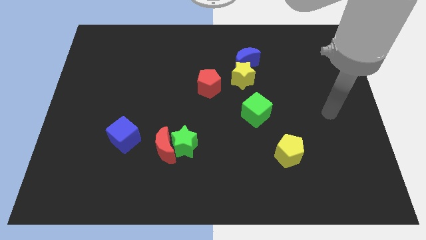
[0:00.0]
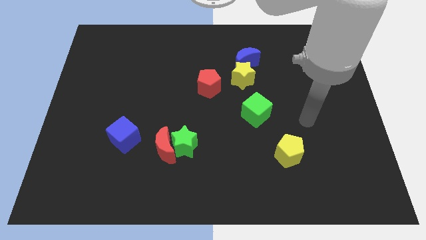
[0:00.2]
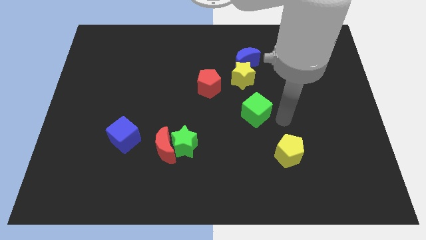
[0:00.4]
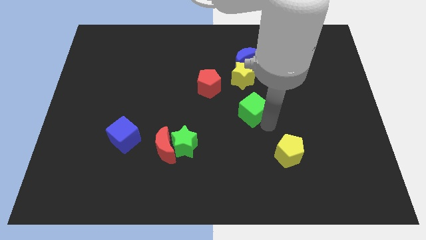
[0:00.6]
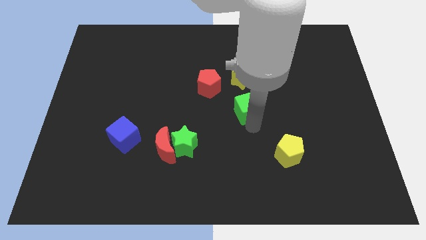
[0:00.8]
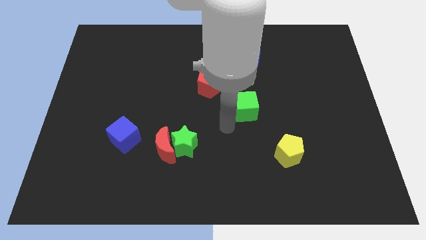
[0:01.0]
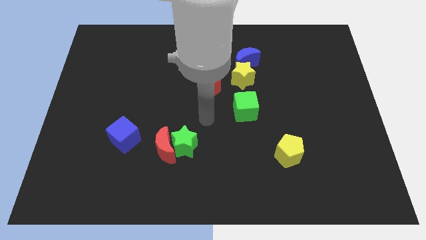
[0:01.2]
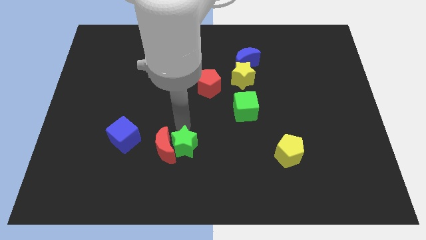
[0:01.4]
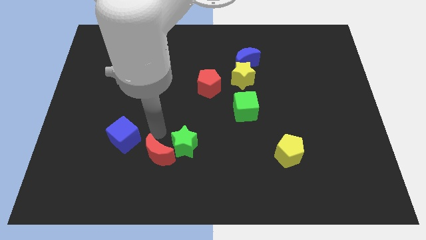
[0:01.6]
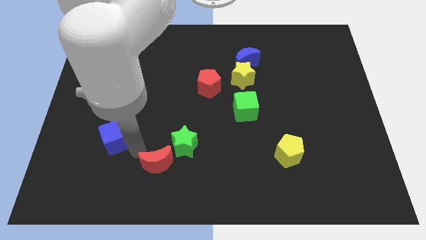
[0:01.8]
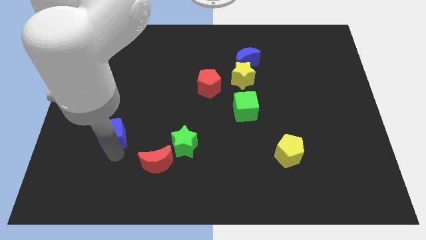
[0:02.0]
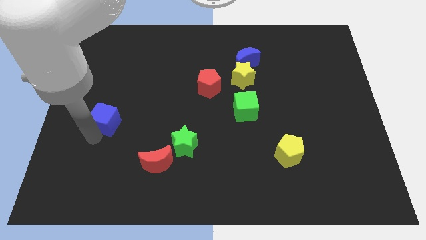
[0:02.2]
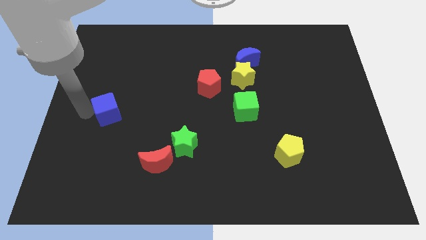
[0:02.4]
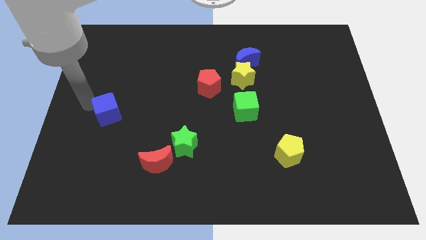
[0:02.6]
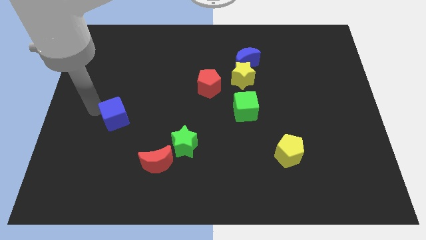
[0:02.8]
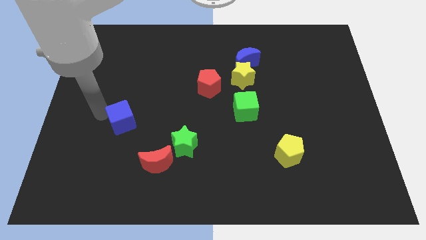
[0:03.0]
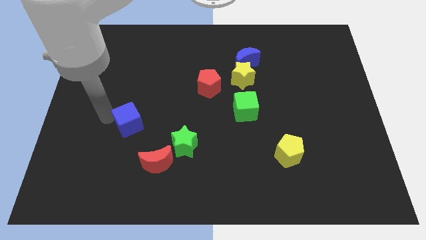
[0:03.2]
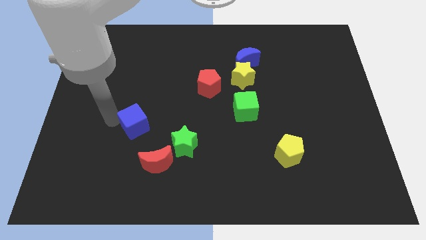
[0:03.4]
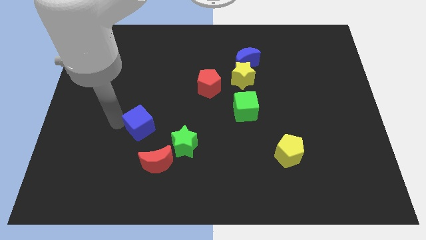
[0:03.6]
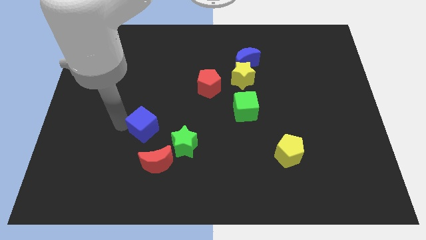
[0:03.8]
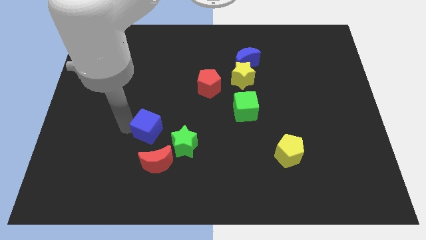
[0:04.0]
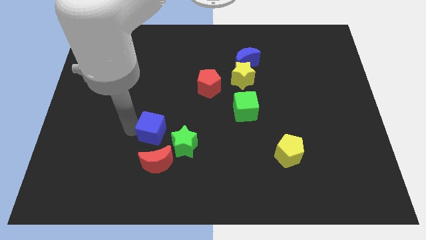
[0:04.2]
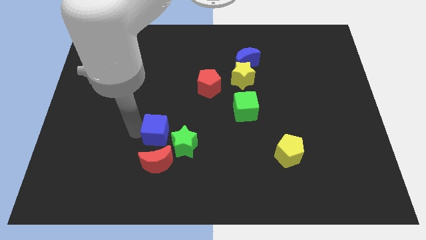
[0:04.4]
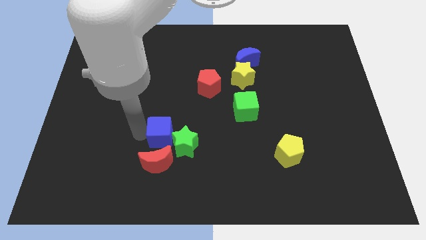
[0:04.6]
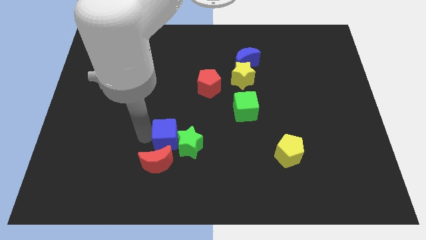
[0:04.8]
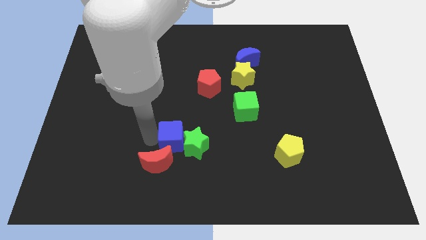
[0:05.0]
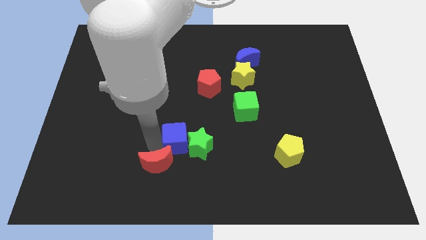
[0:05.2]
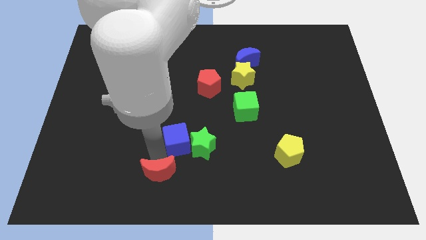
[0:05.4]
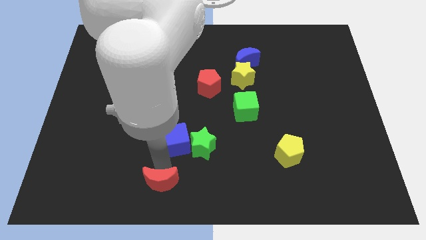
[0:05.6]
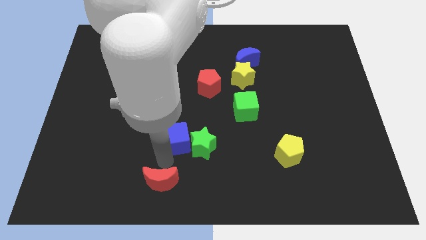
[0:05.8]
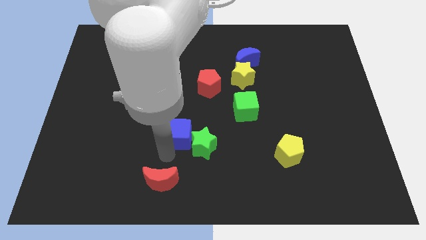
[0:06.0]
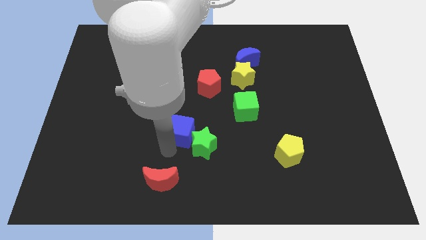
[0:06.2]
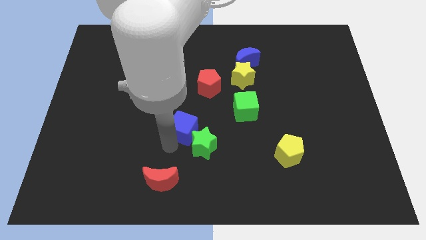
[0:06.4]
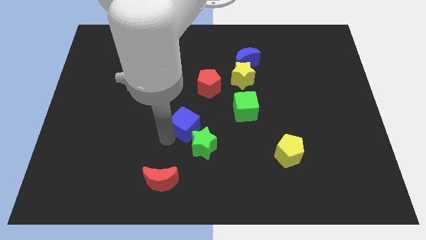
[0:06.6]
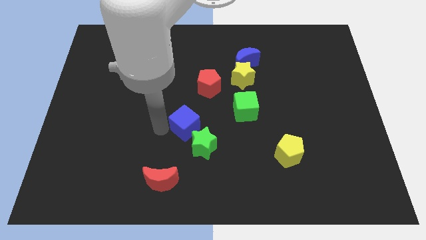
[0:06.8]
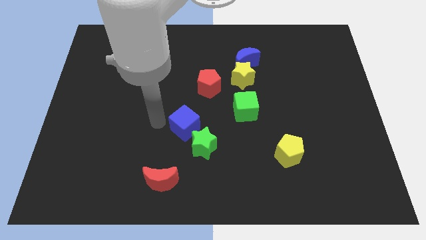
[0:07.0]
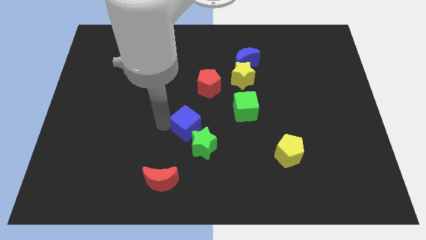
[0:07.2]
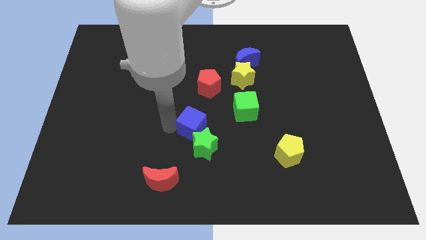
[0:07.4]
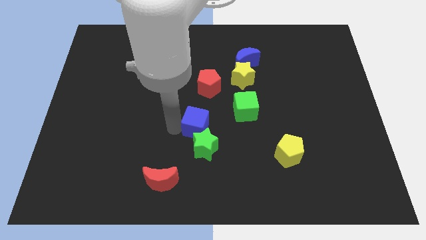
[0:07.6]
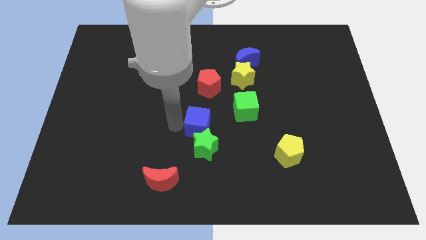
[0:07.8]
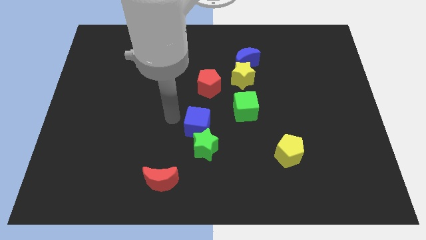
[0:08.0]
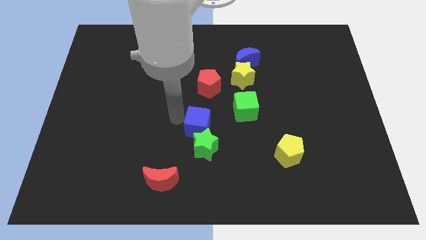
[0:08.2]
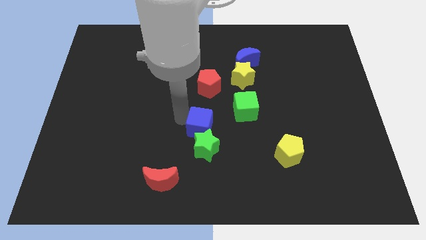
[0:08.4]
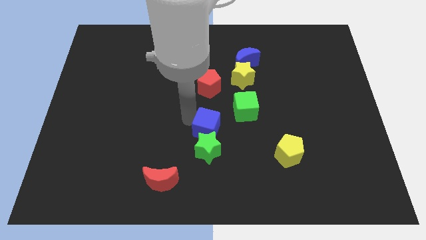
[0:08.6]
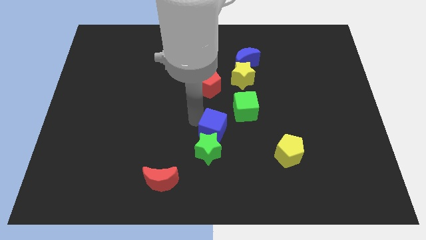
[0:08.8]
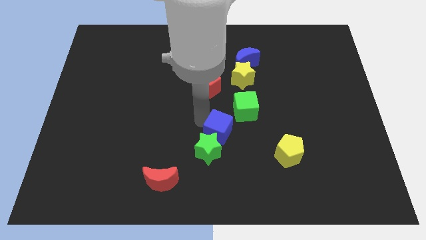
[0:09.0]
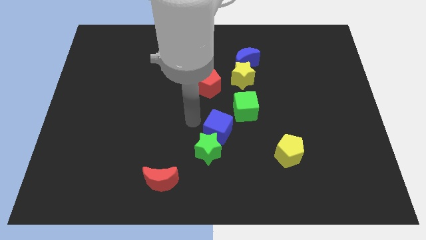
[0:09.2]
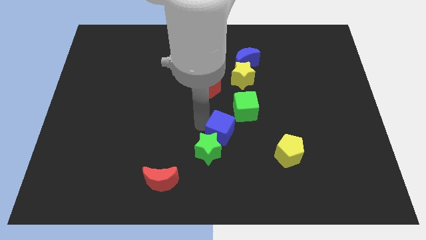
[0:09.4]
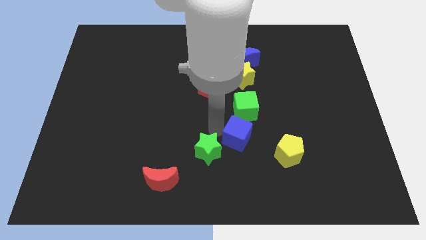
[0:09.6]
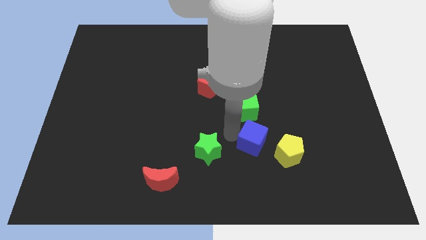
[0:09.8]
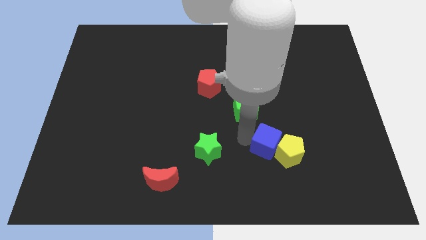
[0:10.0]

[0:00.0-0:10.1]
put the blue cube next to the yellow pentagon

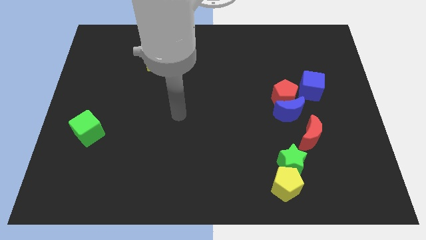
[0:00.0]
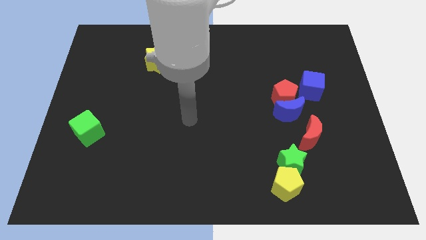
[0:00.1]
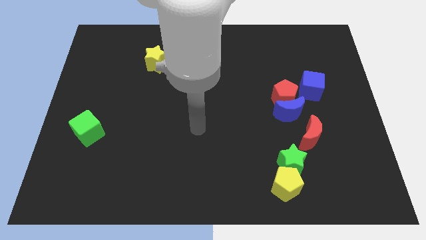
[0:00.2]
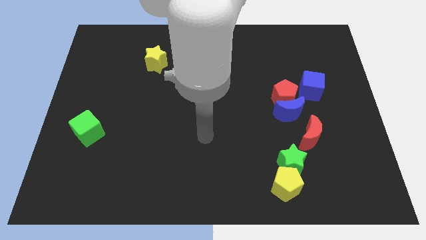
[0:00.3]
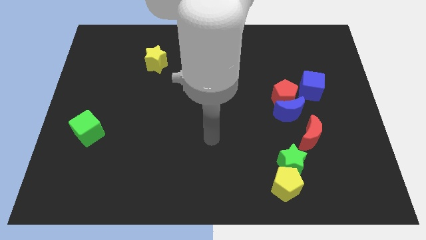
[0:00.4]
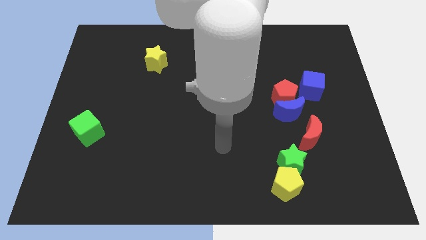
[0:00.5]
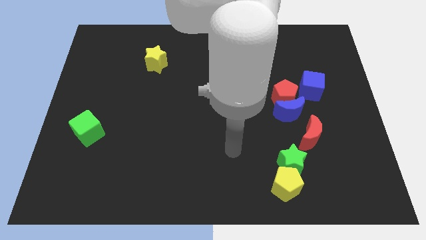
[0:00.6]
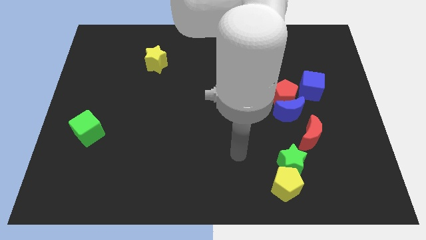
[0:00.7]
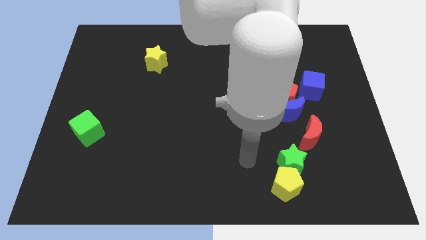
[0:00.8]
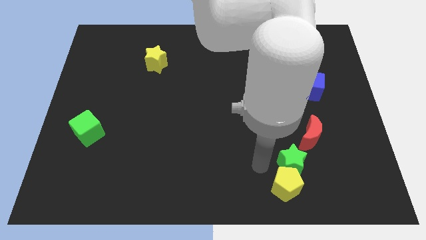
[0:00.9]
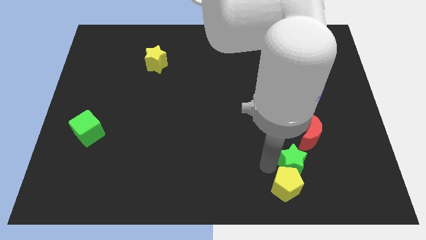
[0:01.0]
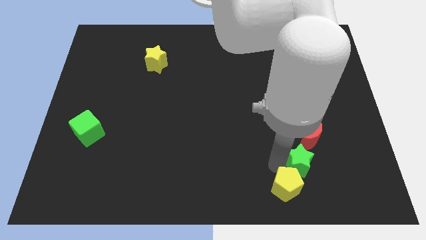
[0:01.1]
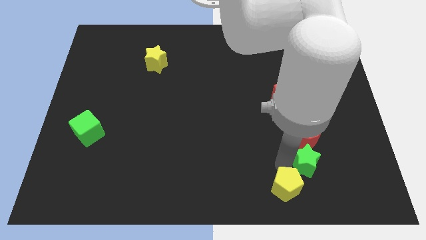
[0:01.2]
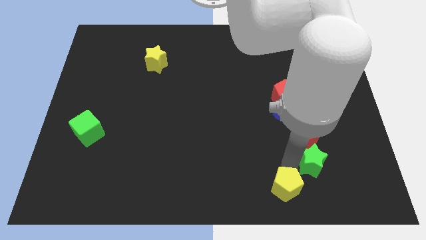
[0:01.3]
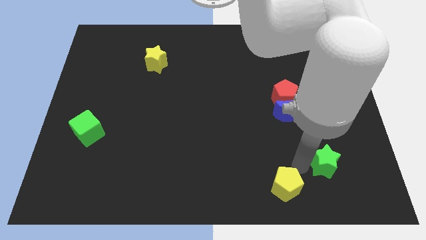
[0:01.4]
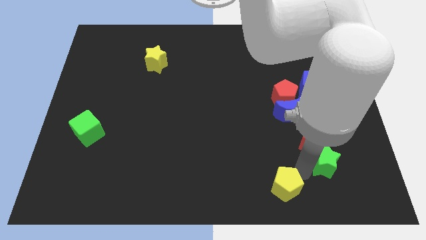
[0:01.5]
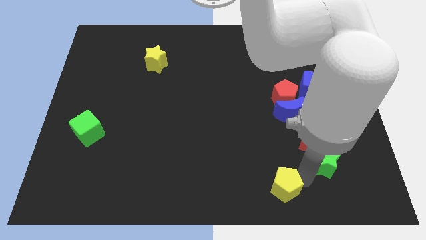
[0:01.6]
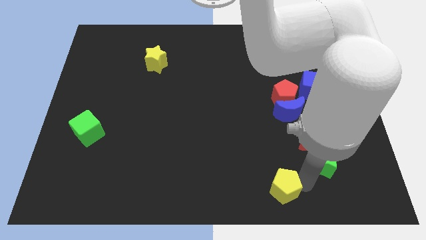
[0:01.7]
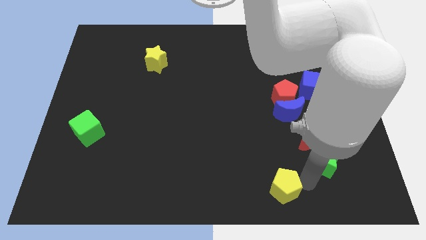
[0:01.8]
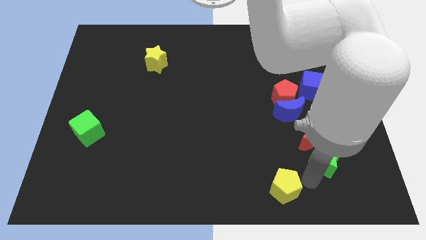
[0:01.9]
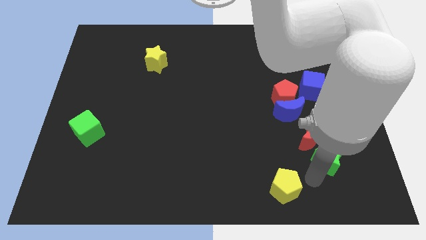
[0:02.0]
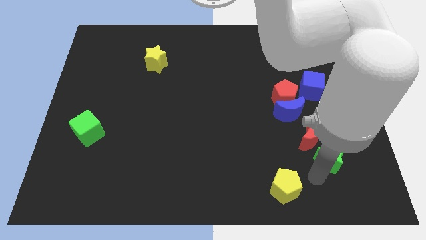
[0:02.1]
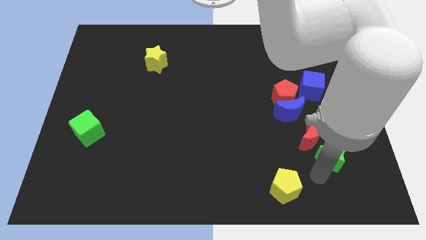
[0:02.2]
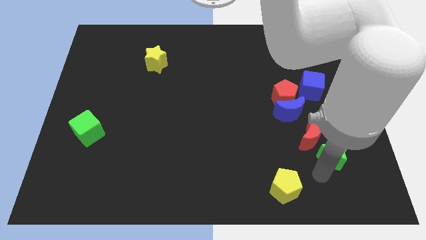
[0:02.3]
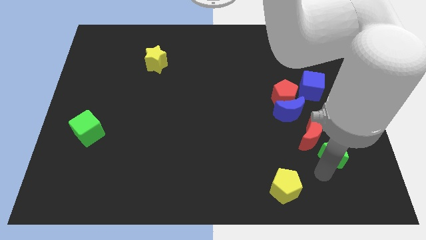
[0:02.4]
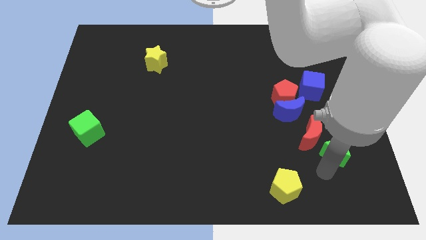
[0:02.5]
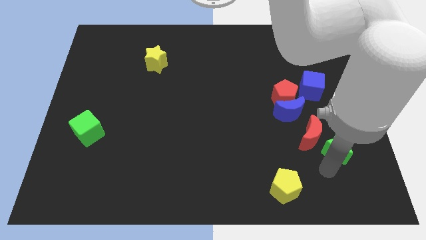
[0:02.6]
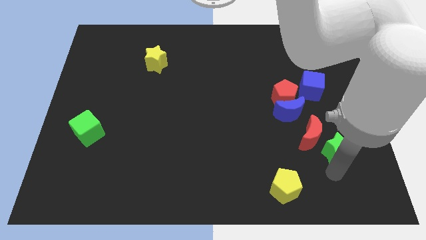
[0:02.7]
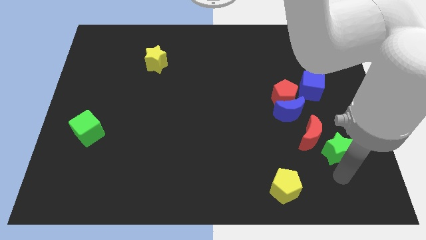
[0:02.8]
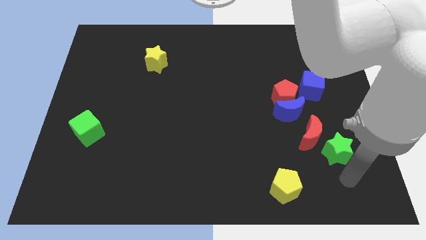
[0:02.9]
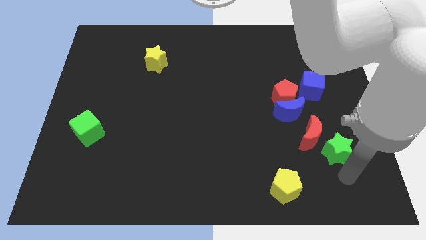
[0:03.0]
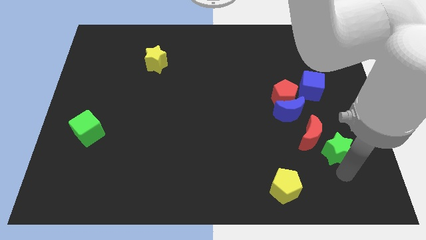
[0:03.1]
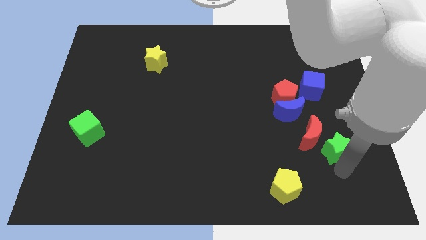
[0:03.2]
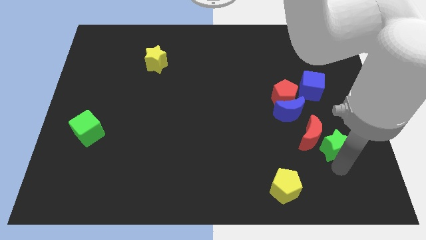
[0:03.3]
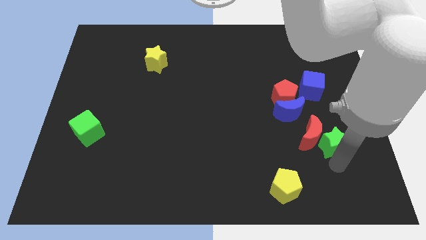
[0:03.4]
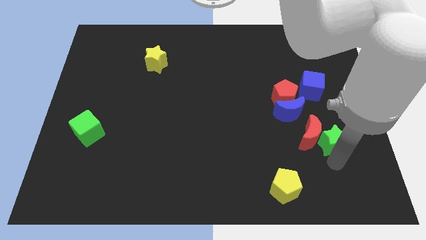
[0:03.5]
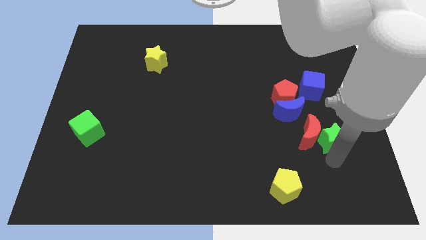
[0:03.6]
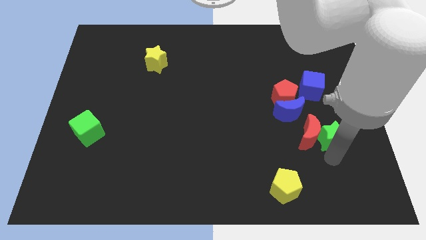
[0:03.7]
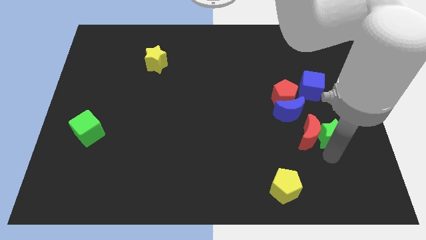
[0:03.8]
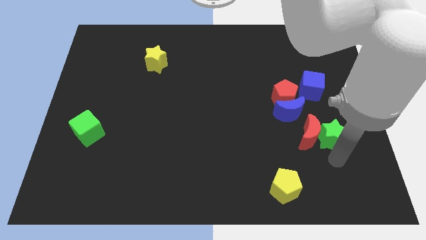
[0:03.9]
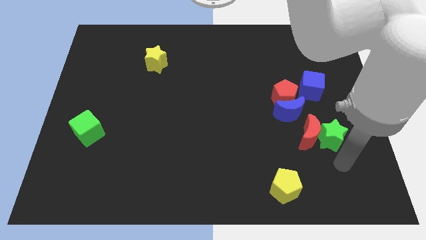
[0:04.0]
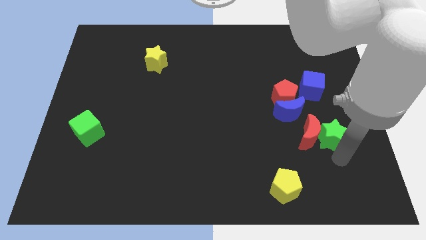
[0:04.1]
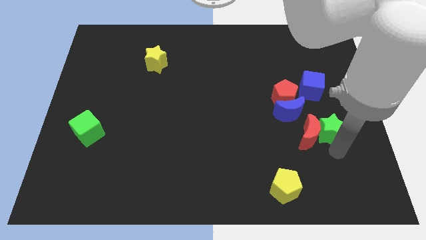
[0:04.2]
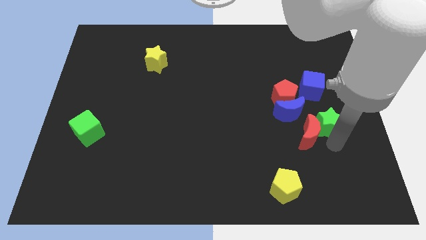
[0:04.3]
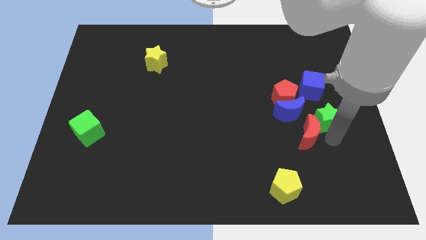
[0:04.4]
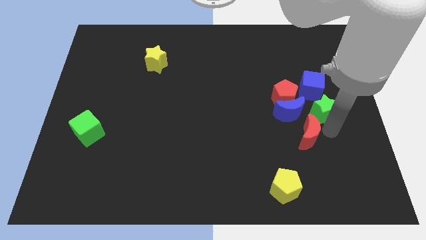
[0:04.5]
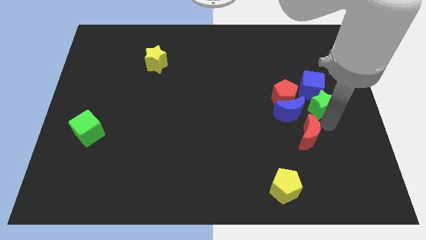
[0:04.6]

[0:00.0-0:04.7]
put the green star next to the blue cube
